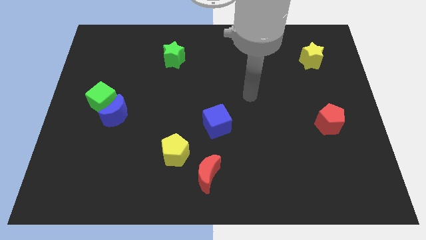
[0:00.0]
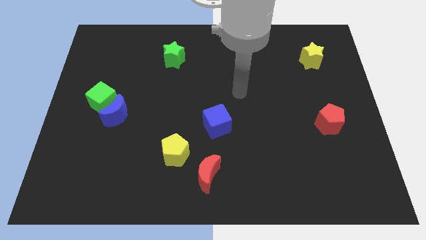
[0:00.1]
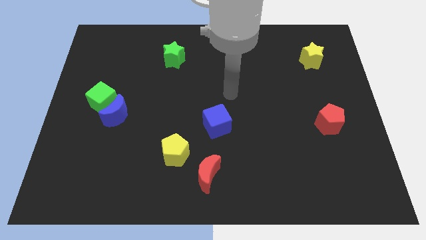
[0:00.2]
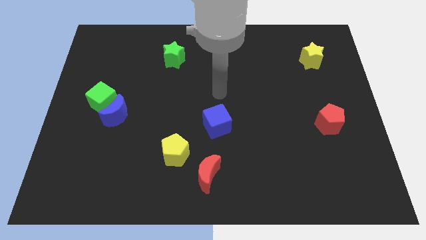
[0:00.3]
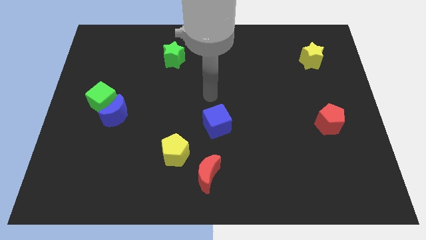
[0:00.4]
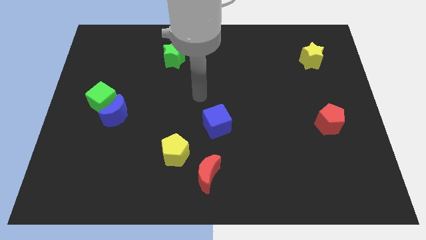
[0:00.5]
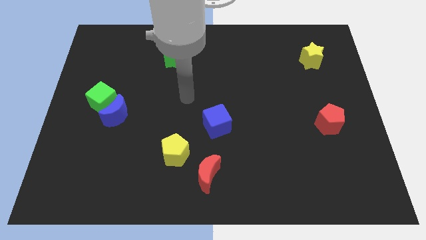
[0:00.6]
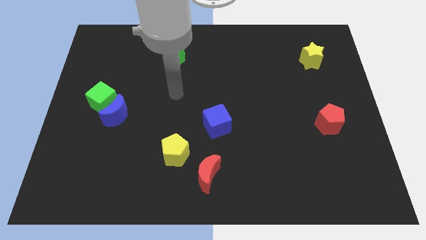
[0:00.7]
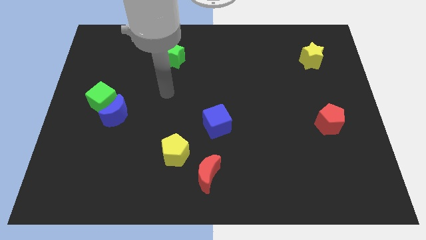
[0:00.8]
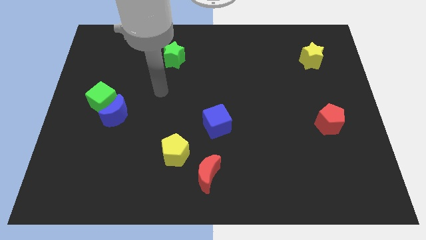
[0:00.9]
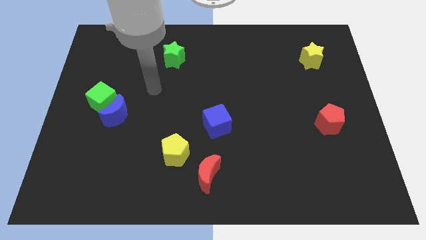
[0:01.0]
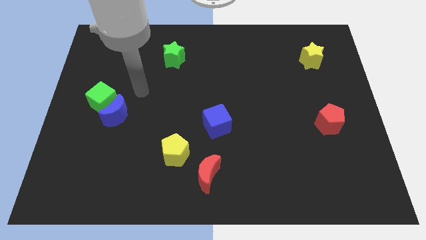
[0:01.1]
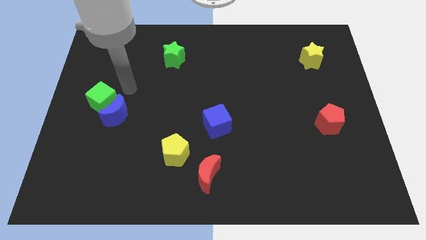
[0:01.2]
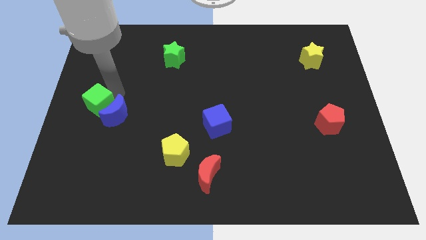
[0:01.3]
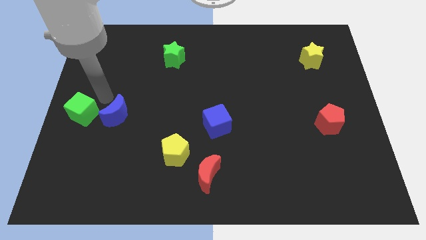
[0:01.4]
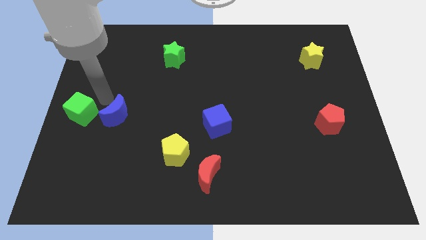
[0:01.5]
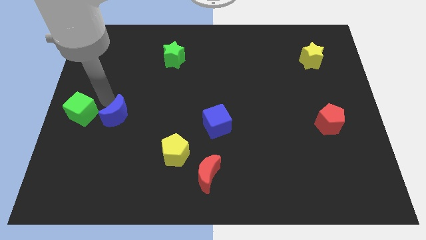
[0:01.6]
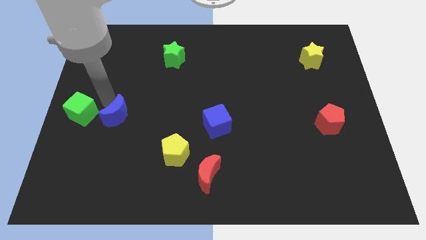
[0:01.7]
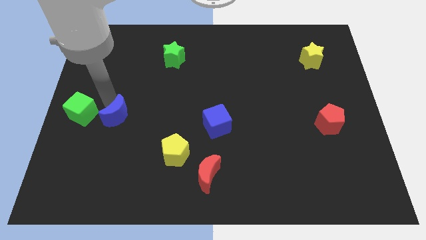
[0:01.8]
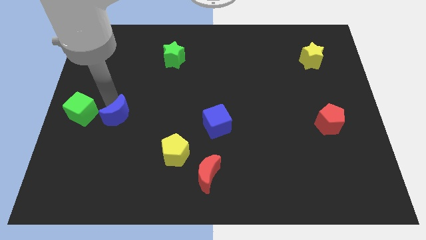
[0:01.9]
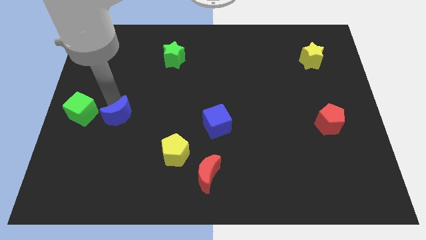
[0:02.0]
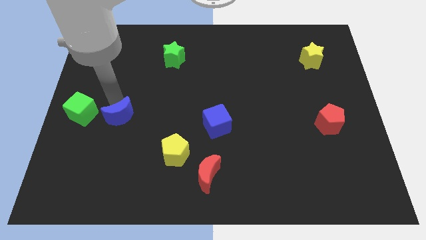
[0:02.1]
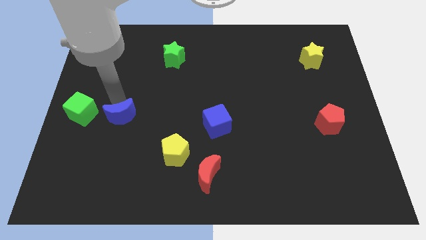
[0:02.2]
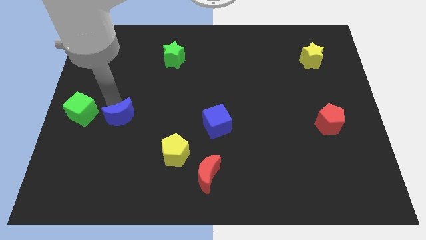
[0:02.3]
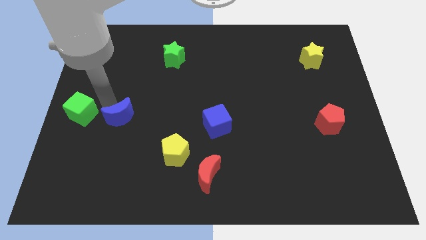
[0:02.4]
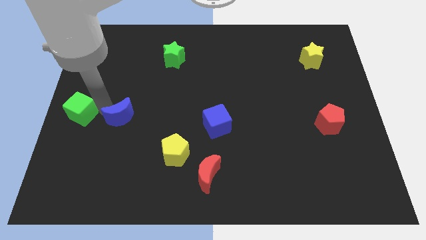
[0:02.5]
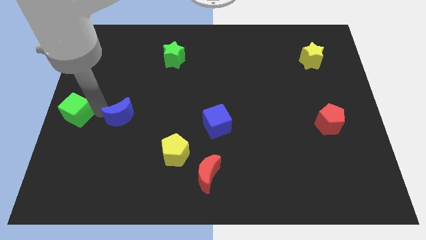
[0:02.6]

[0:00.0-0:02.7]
move the blue moon away from the green cube

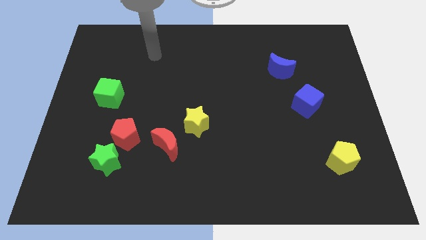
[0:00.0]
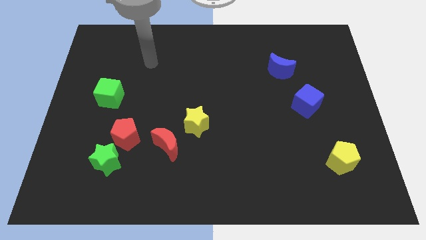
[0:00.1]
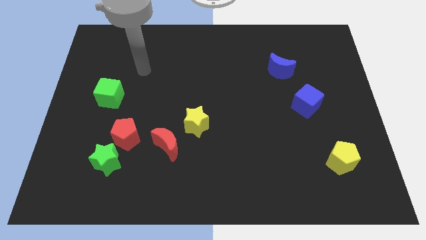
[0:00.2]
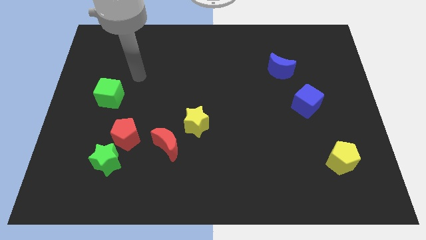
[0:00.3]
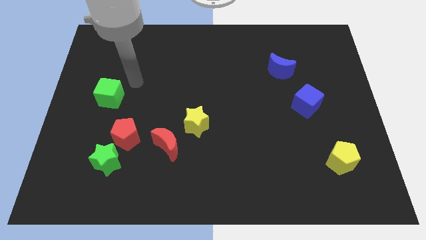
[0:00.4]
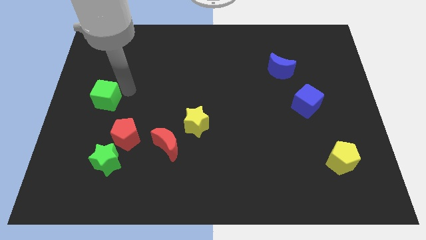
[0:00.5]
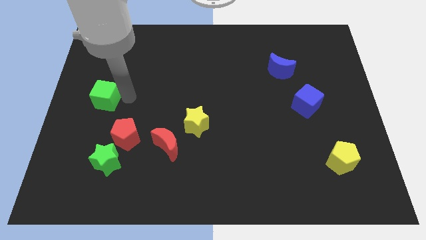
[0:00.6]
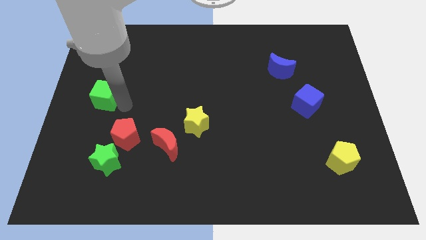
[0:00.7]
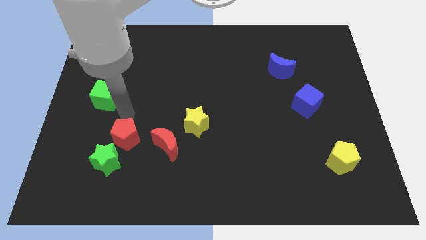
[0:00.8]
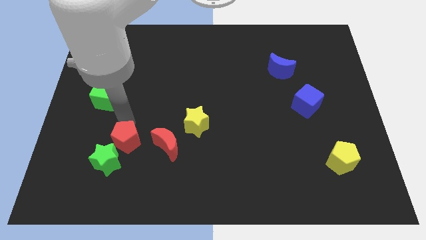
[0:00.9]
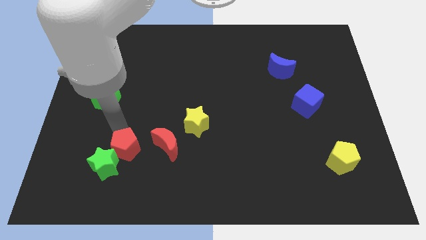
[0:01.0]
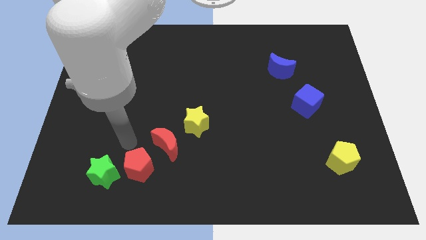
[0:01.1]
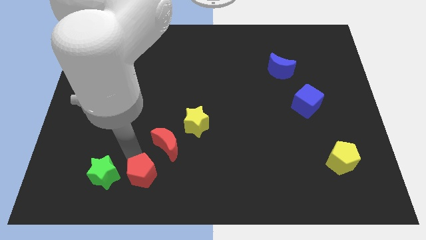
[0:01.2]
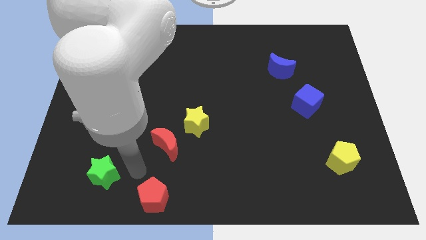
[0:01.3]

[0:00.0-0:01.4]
pull the green star apart from the red pentagon

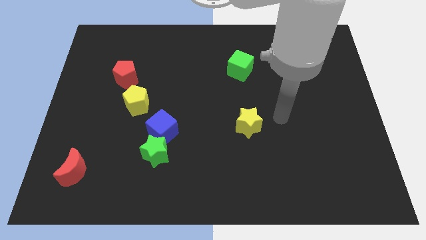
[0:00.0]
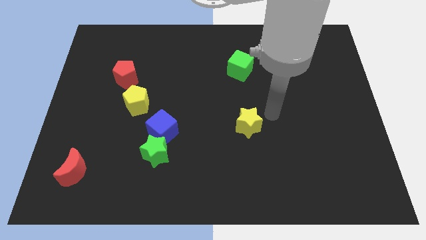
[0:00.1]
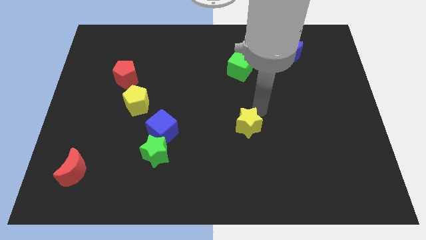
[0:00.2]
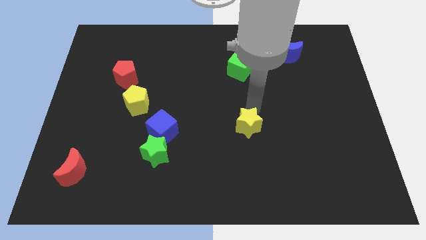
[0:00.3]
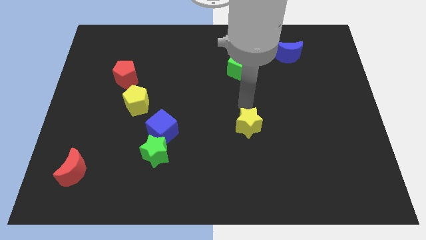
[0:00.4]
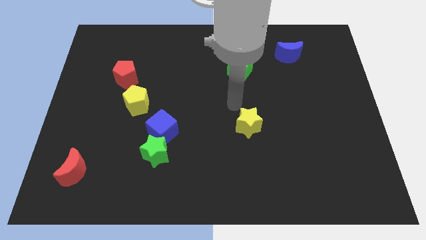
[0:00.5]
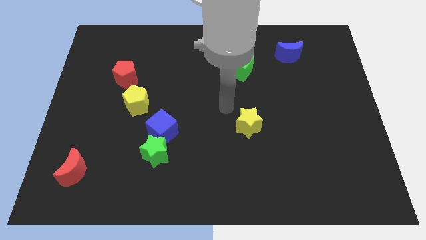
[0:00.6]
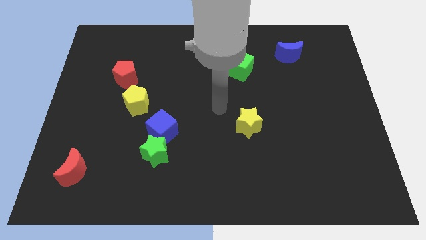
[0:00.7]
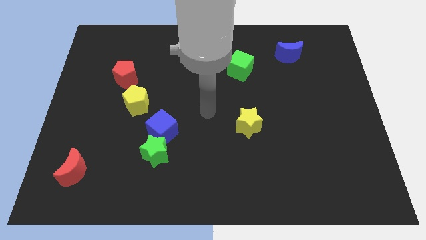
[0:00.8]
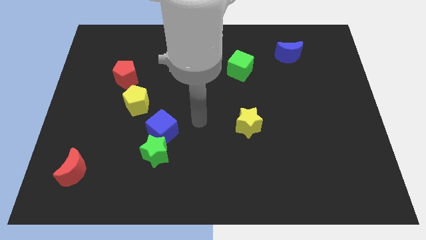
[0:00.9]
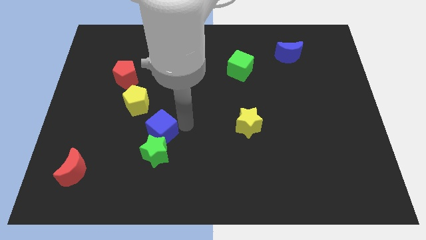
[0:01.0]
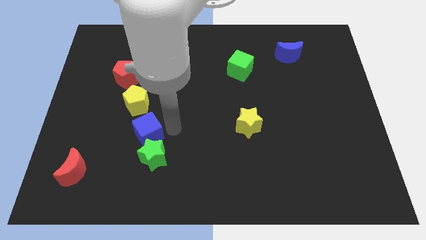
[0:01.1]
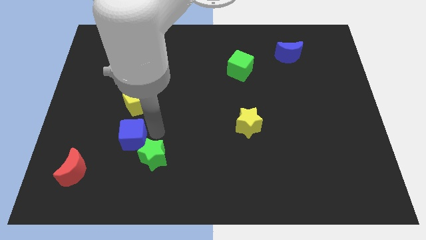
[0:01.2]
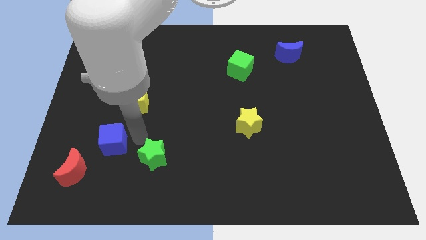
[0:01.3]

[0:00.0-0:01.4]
move the green star away from the blue cube

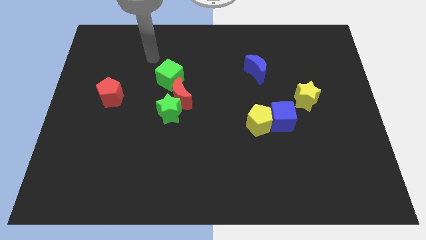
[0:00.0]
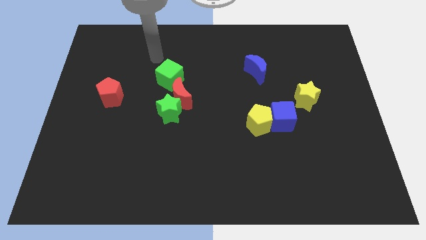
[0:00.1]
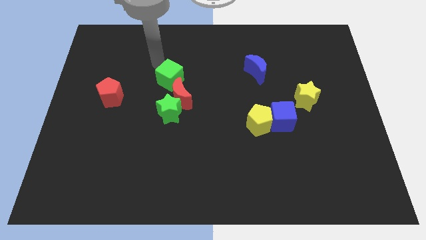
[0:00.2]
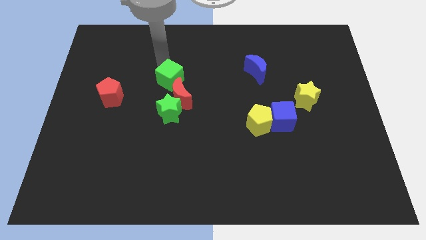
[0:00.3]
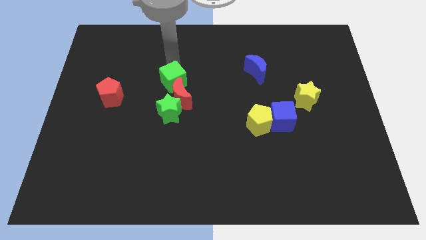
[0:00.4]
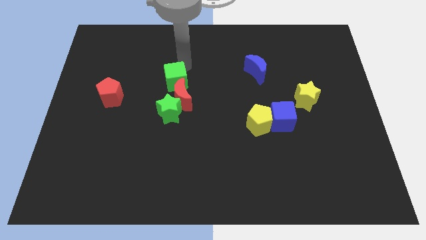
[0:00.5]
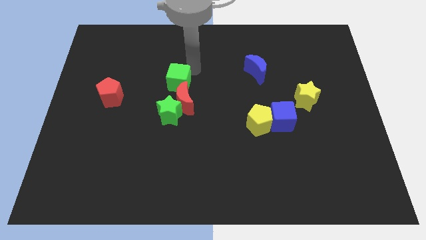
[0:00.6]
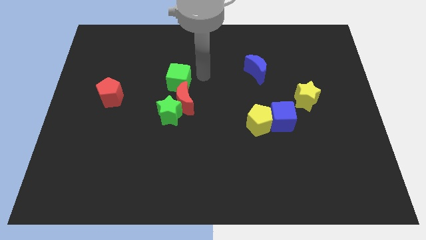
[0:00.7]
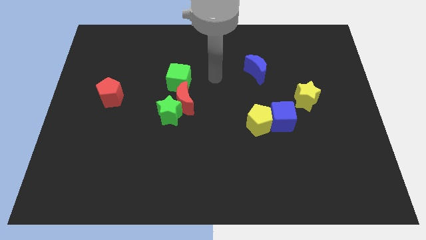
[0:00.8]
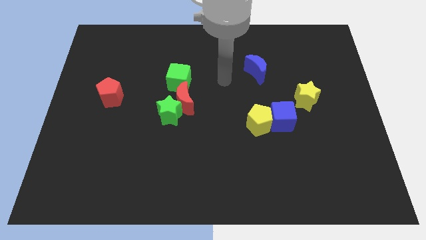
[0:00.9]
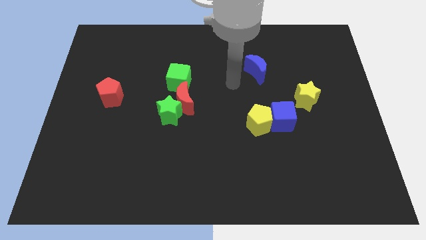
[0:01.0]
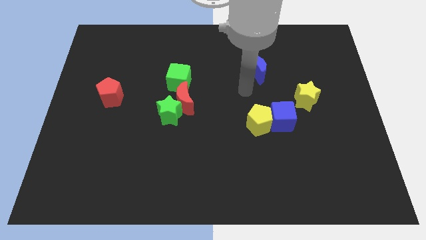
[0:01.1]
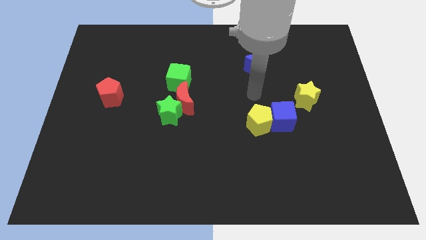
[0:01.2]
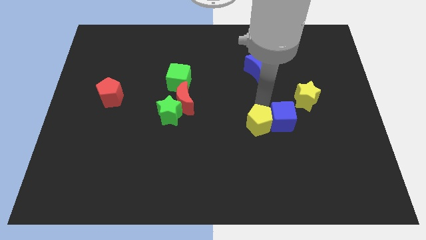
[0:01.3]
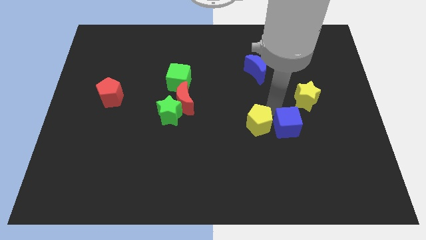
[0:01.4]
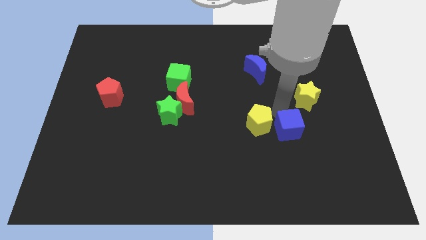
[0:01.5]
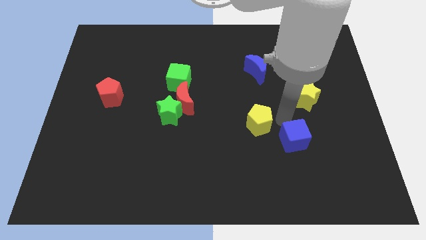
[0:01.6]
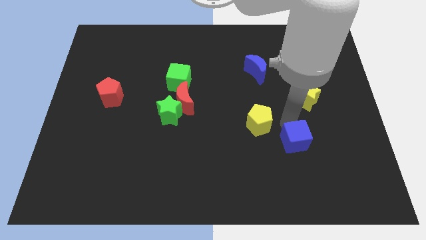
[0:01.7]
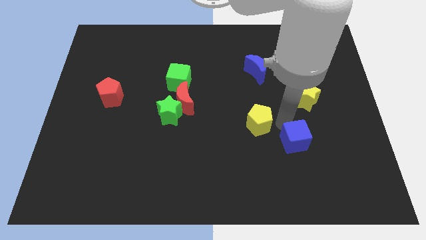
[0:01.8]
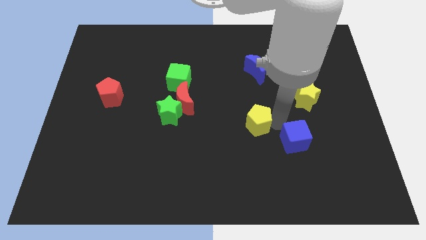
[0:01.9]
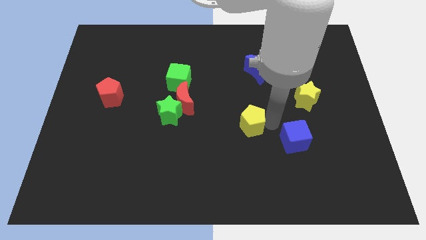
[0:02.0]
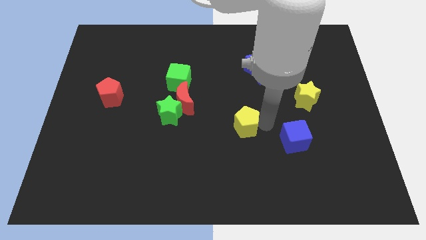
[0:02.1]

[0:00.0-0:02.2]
move the yellow pentagon away from the blue cube

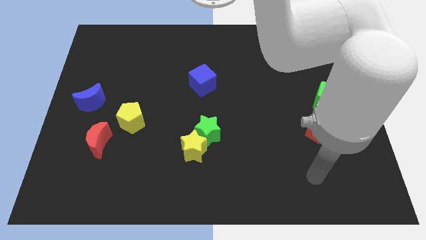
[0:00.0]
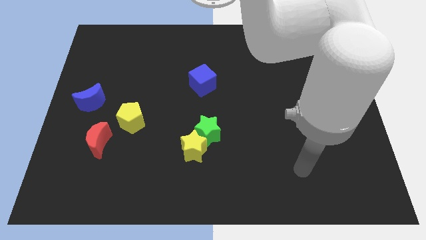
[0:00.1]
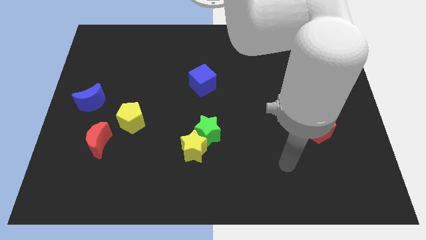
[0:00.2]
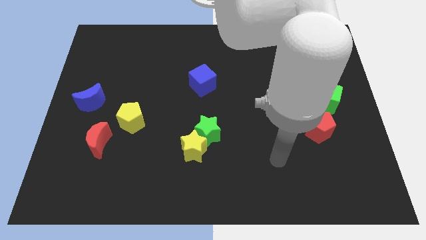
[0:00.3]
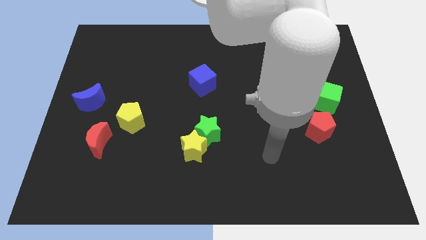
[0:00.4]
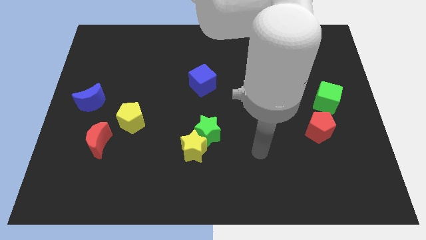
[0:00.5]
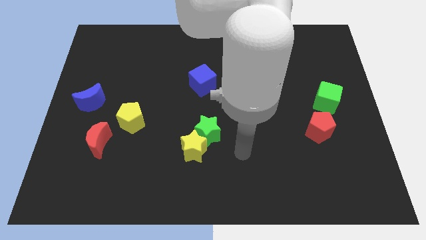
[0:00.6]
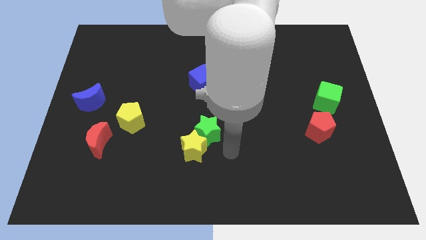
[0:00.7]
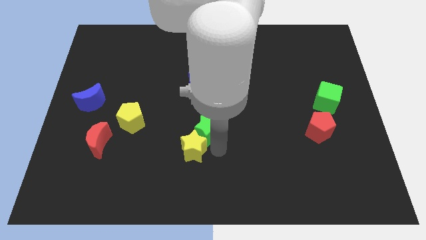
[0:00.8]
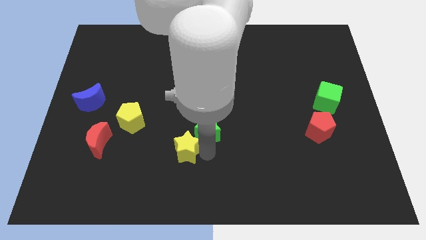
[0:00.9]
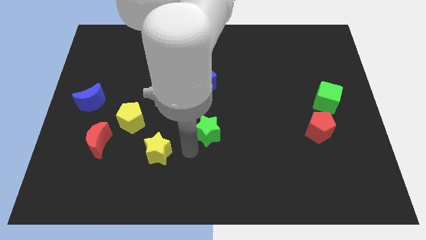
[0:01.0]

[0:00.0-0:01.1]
move the green star away from the yellow star

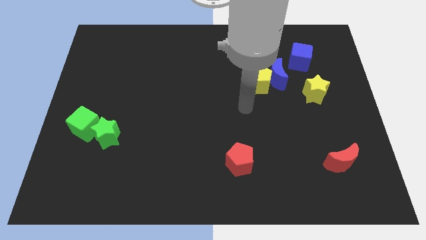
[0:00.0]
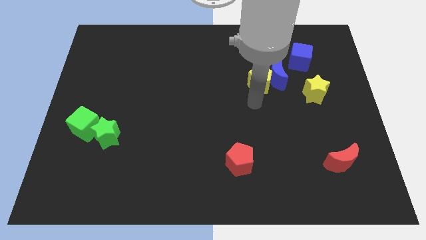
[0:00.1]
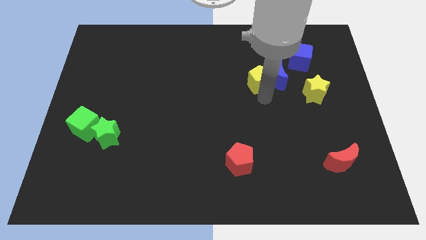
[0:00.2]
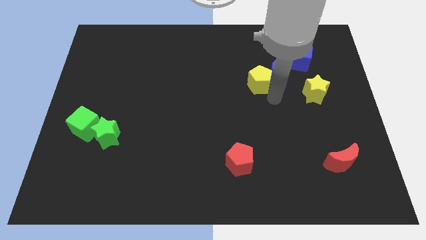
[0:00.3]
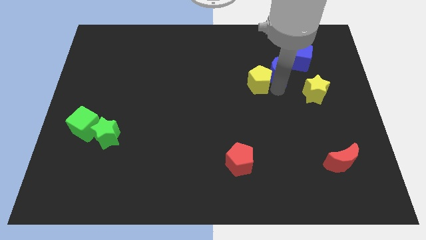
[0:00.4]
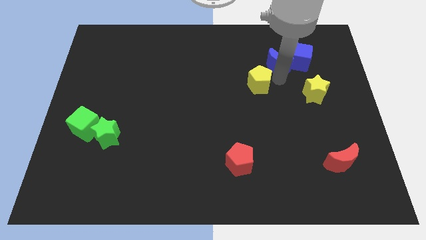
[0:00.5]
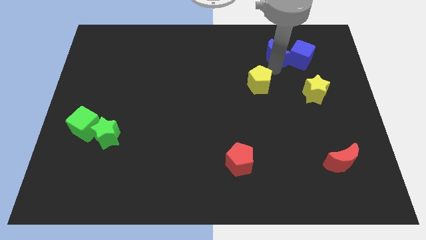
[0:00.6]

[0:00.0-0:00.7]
separate the yellow pentagon from the blue moon
